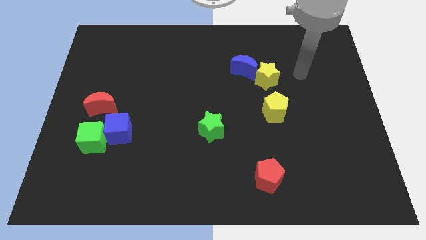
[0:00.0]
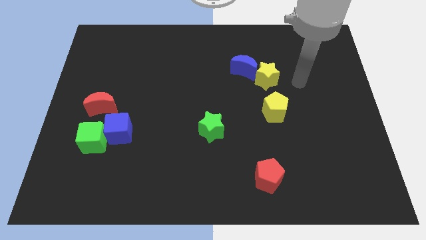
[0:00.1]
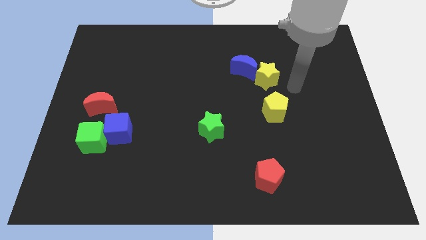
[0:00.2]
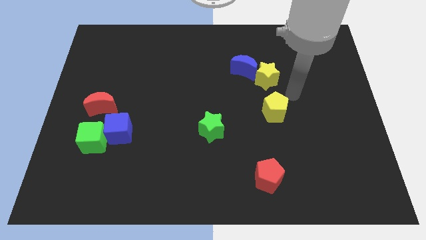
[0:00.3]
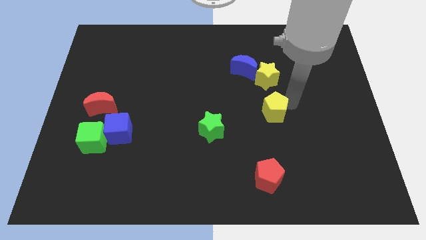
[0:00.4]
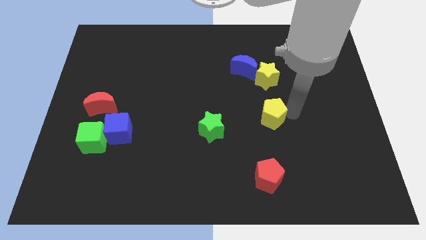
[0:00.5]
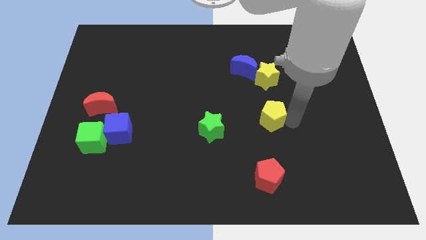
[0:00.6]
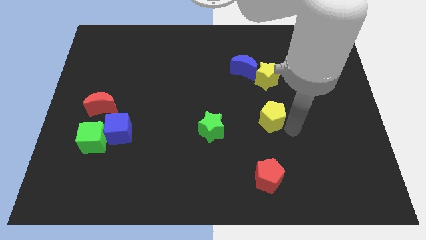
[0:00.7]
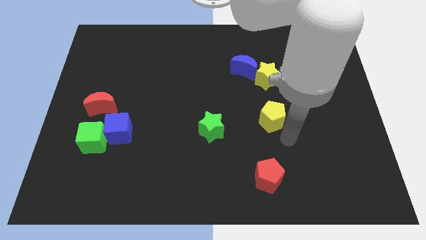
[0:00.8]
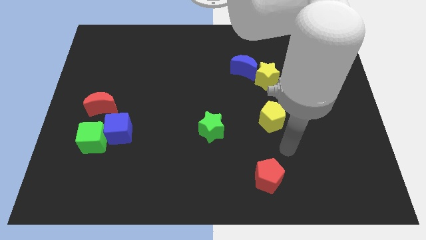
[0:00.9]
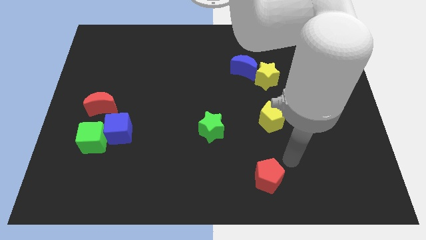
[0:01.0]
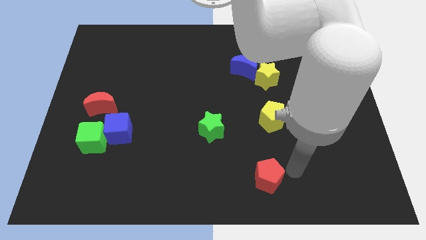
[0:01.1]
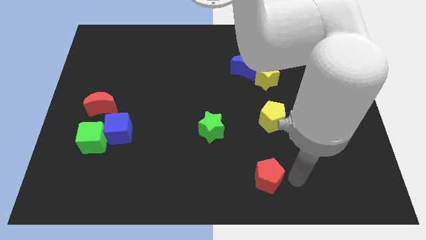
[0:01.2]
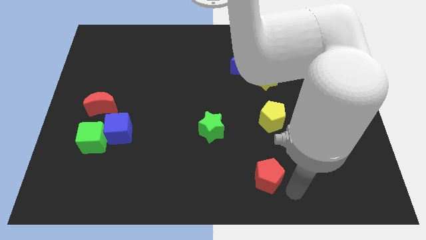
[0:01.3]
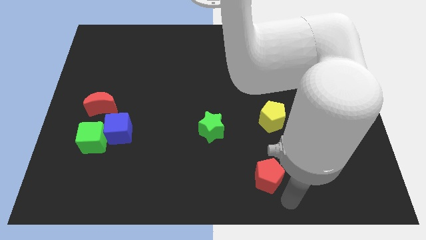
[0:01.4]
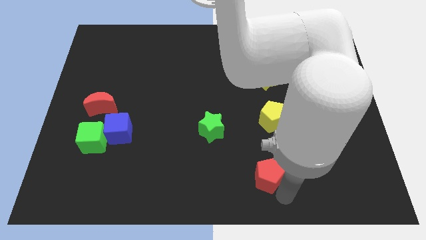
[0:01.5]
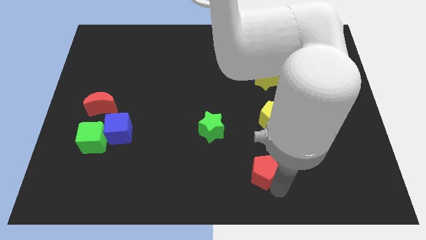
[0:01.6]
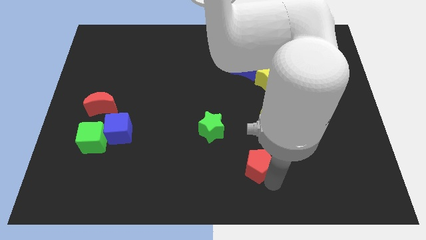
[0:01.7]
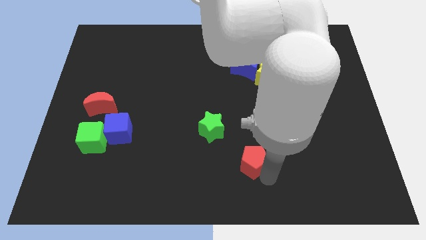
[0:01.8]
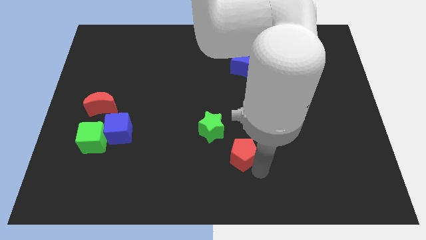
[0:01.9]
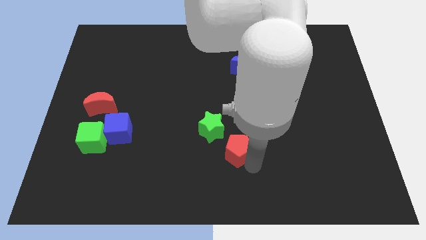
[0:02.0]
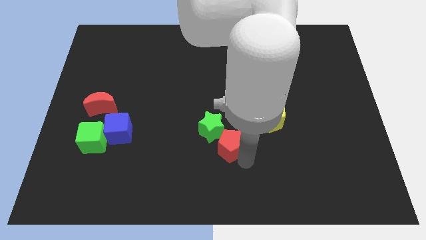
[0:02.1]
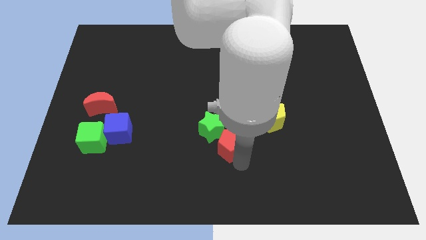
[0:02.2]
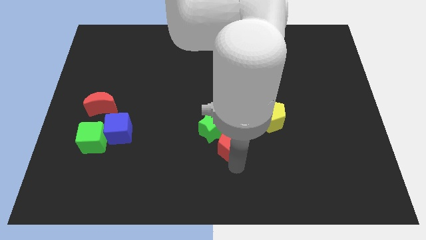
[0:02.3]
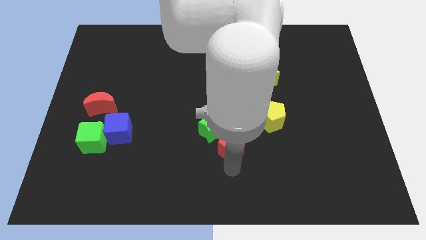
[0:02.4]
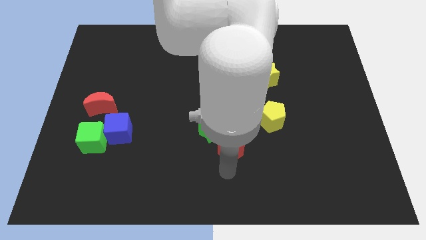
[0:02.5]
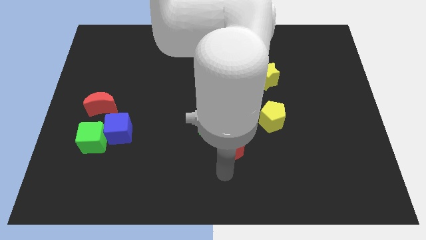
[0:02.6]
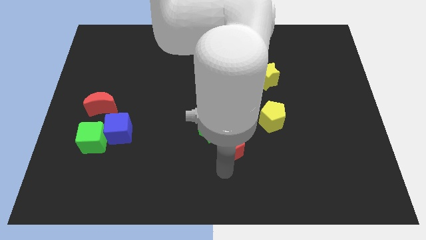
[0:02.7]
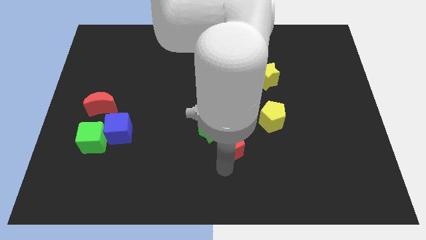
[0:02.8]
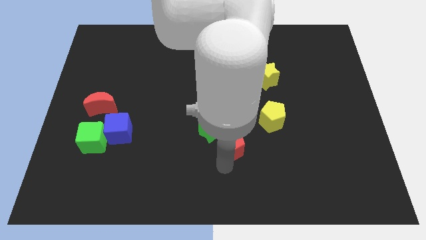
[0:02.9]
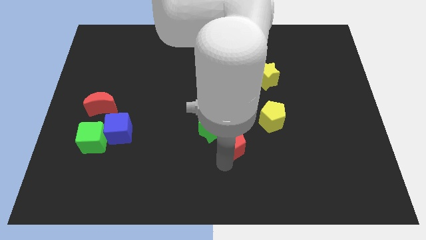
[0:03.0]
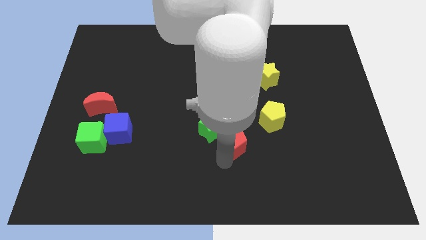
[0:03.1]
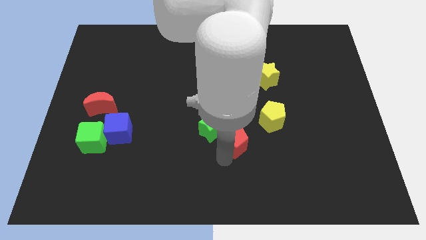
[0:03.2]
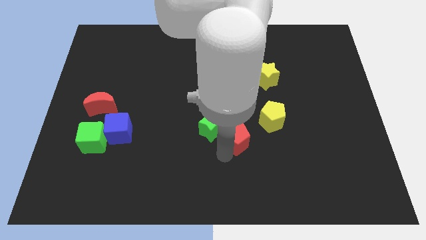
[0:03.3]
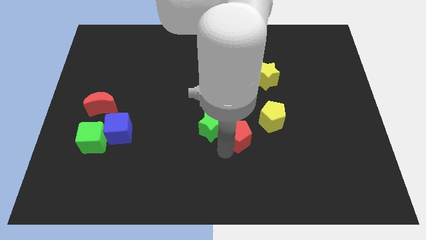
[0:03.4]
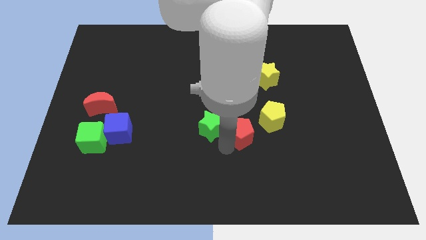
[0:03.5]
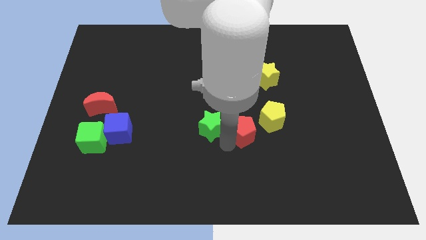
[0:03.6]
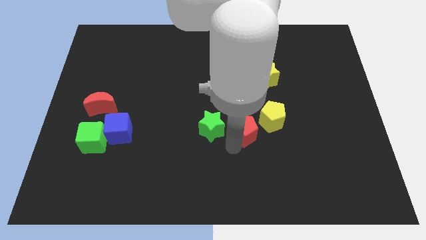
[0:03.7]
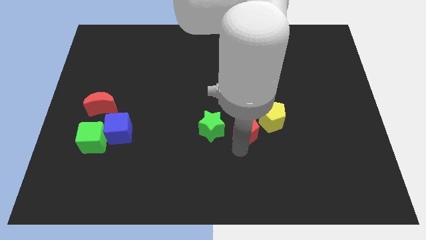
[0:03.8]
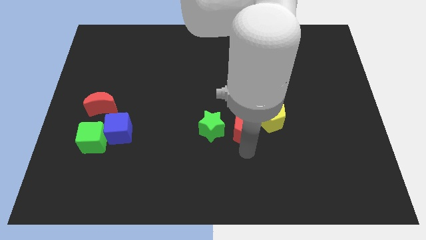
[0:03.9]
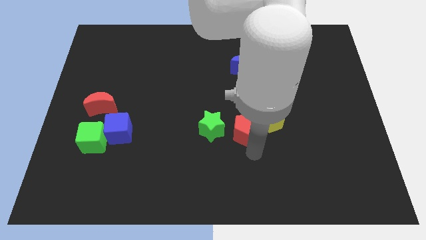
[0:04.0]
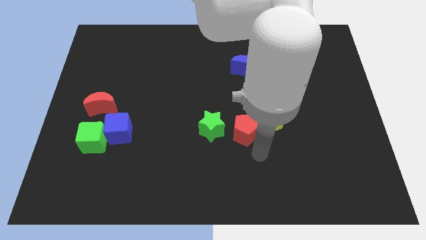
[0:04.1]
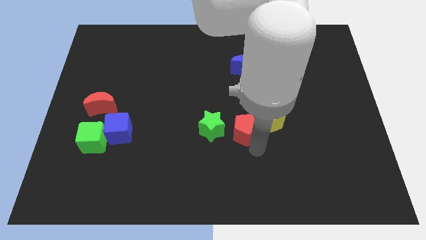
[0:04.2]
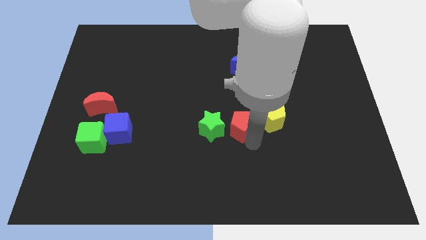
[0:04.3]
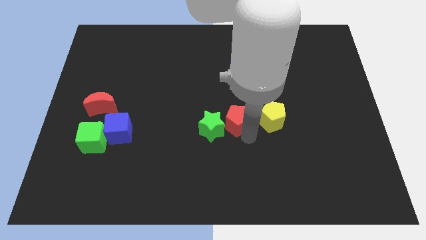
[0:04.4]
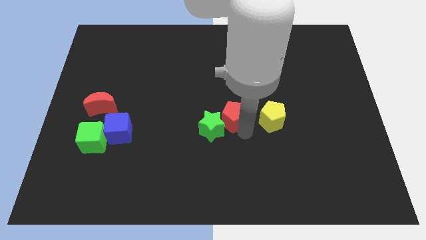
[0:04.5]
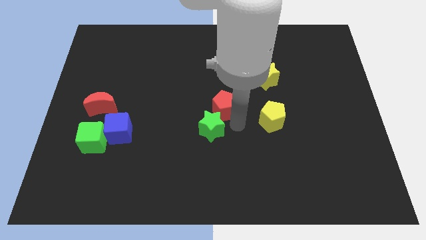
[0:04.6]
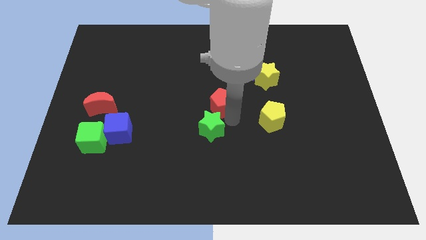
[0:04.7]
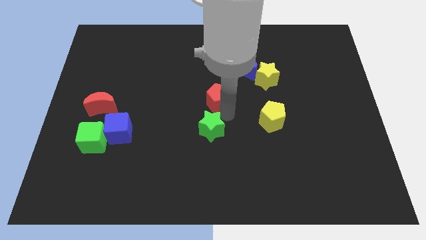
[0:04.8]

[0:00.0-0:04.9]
move the red pentagon to the bottom left side of the blue moon

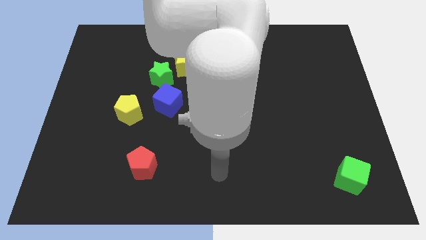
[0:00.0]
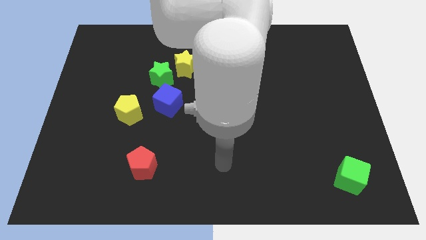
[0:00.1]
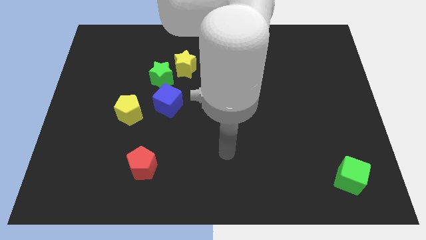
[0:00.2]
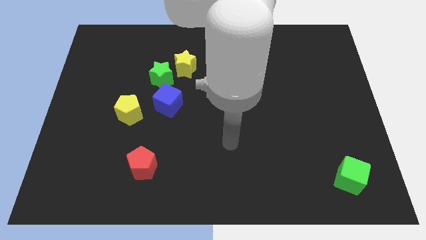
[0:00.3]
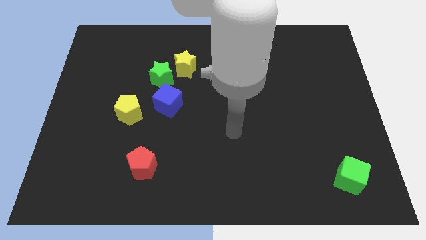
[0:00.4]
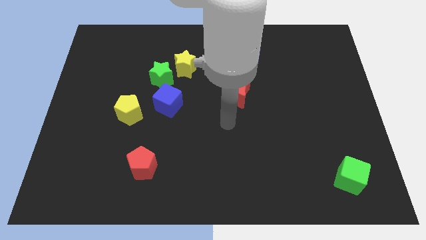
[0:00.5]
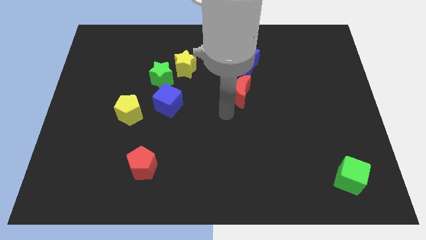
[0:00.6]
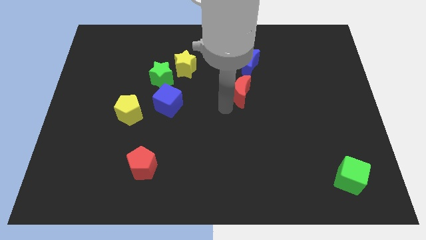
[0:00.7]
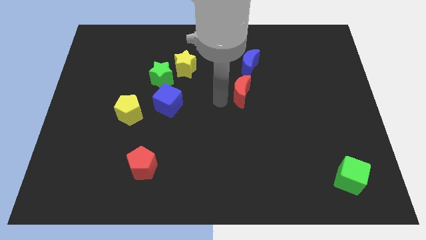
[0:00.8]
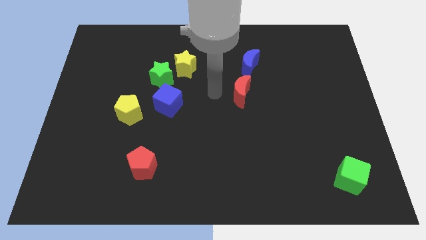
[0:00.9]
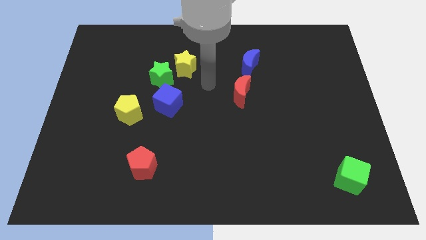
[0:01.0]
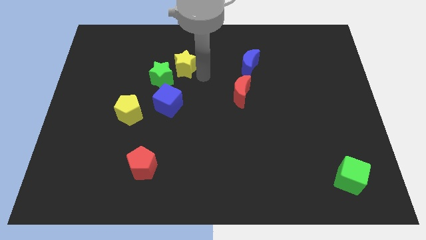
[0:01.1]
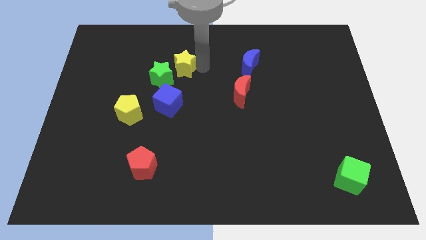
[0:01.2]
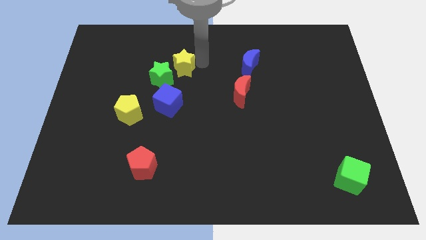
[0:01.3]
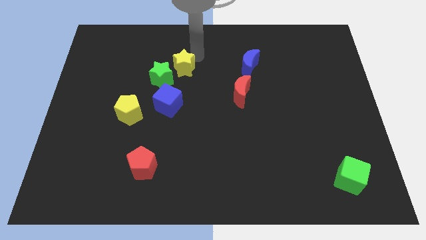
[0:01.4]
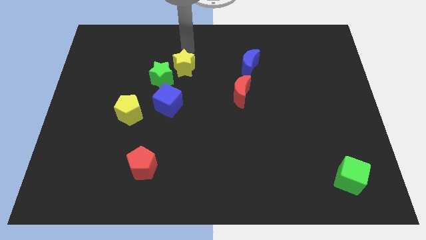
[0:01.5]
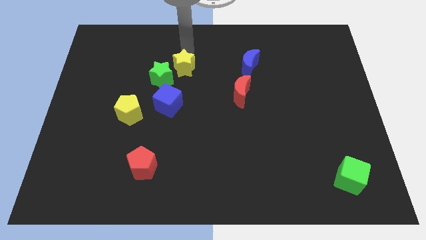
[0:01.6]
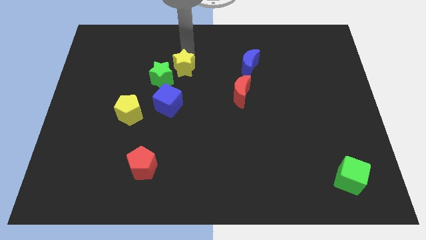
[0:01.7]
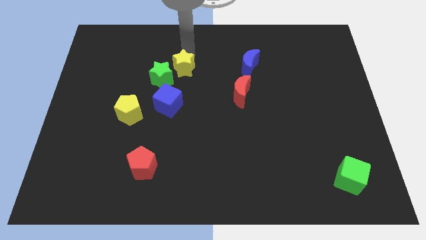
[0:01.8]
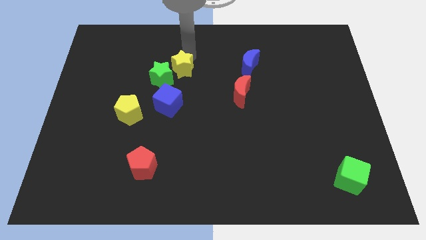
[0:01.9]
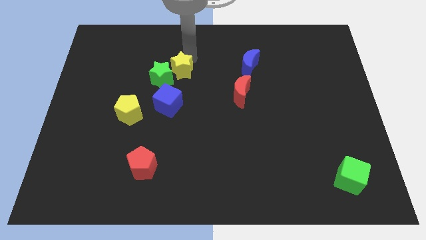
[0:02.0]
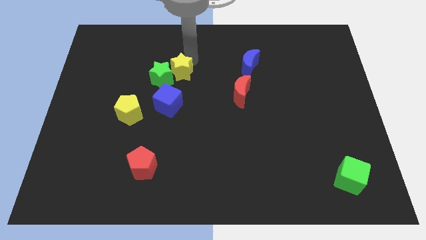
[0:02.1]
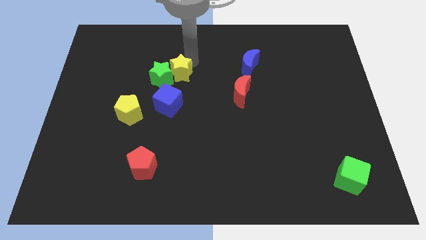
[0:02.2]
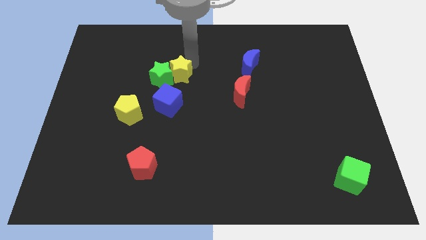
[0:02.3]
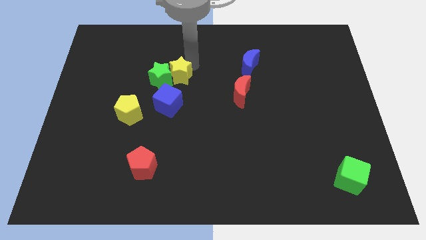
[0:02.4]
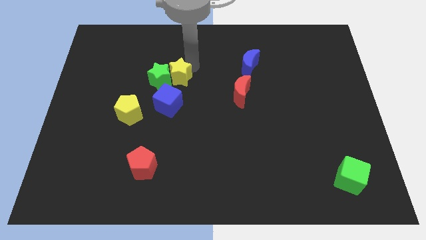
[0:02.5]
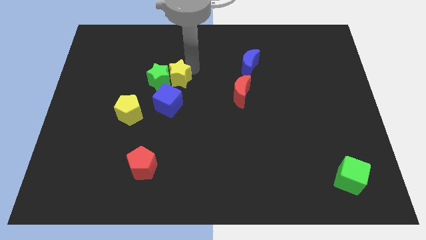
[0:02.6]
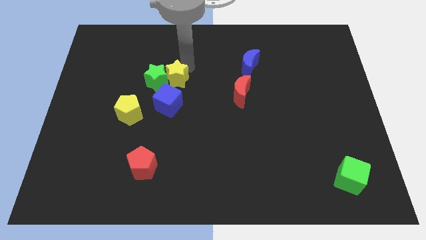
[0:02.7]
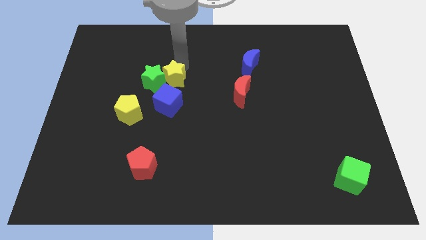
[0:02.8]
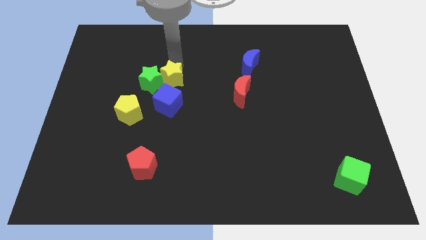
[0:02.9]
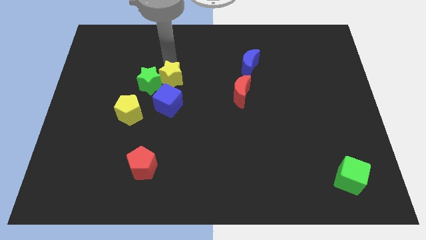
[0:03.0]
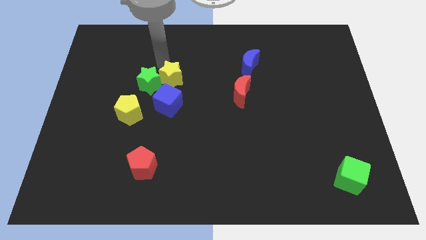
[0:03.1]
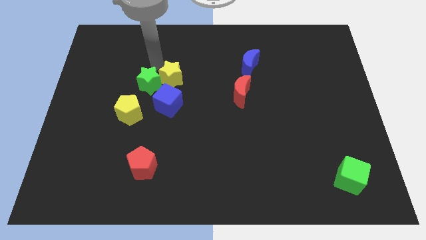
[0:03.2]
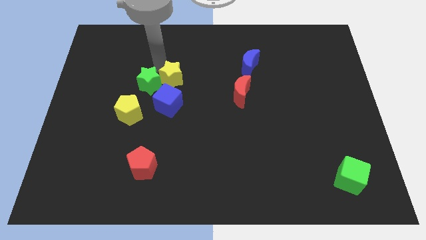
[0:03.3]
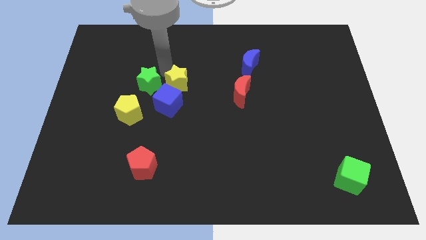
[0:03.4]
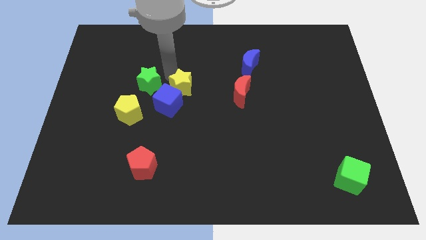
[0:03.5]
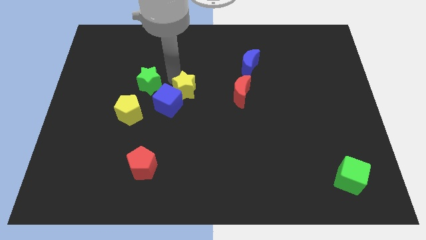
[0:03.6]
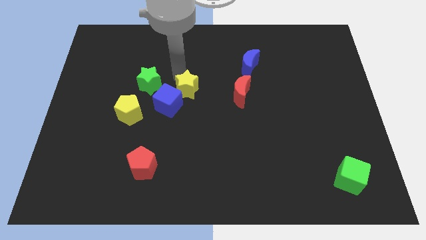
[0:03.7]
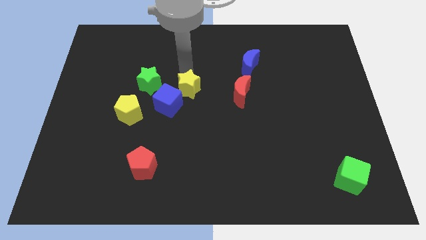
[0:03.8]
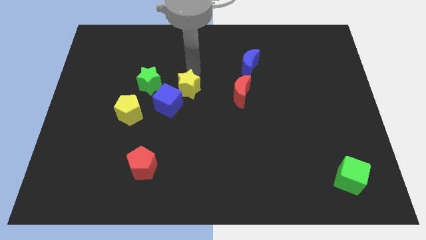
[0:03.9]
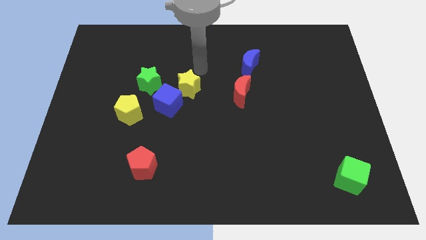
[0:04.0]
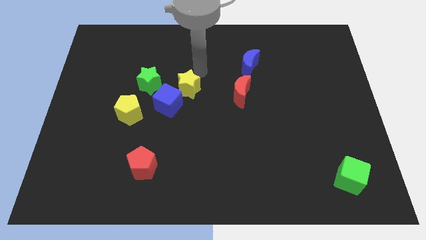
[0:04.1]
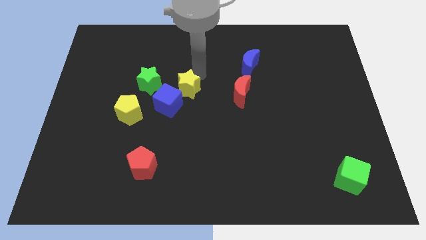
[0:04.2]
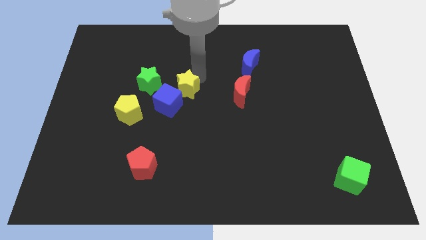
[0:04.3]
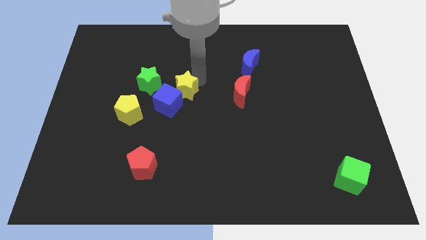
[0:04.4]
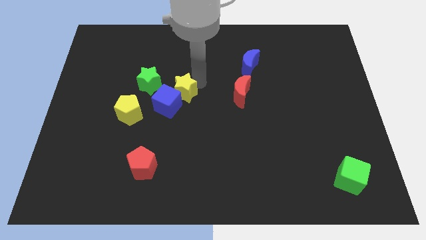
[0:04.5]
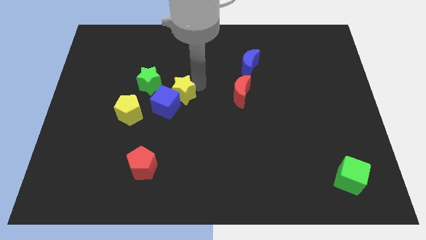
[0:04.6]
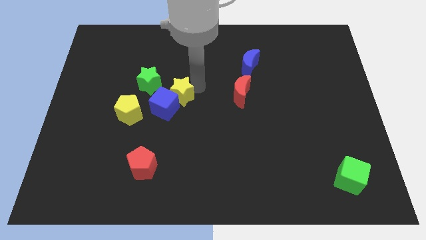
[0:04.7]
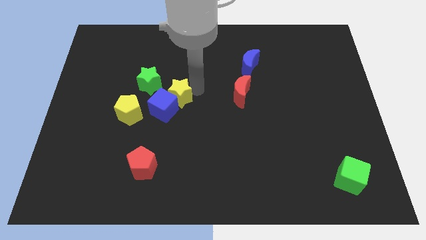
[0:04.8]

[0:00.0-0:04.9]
move the yellow star just right of the yellow pentagon
